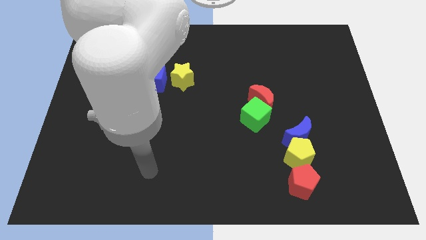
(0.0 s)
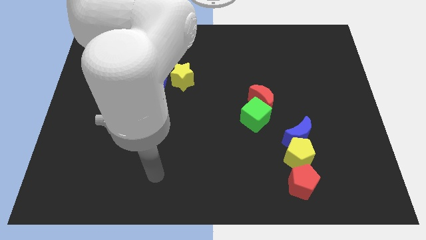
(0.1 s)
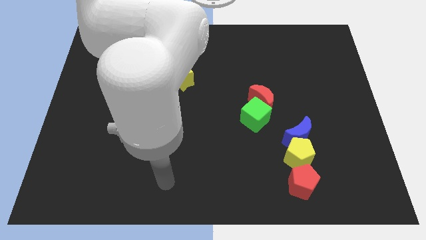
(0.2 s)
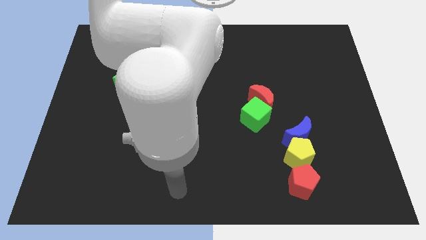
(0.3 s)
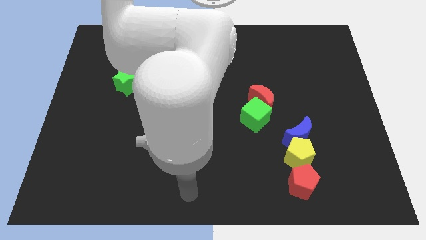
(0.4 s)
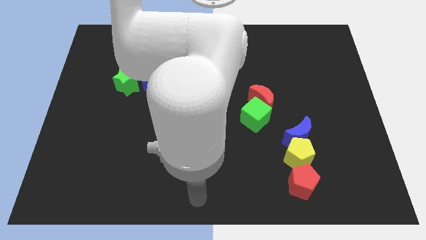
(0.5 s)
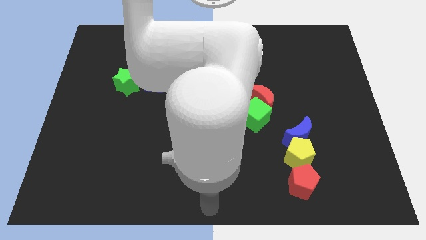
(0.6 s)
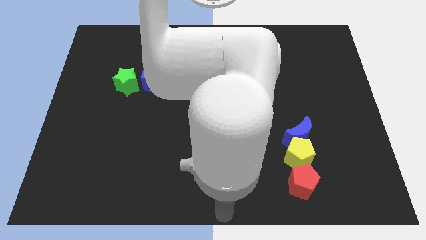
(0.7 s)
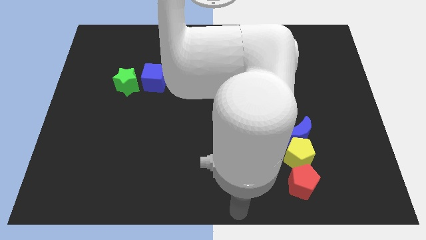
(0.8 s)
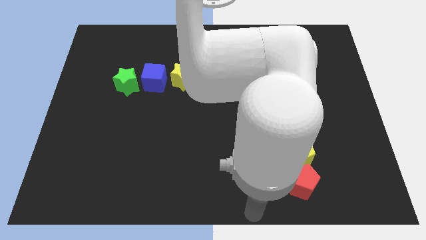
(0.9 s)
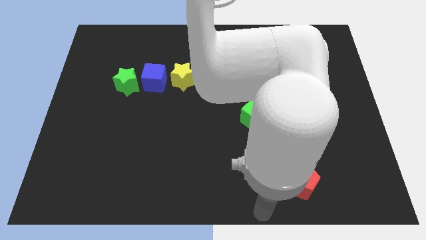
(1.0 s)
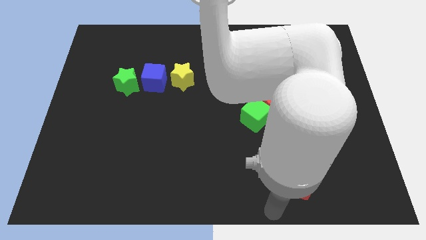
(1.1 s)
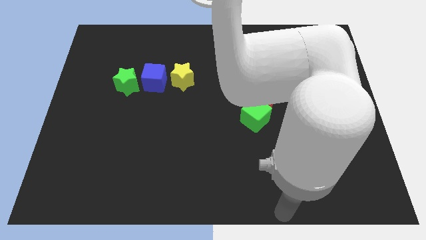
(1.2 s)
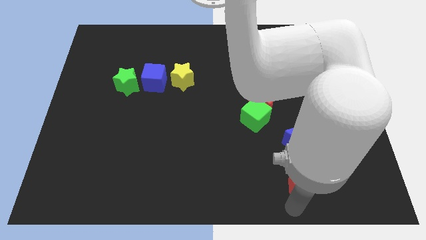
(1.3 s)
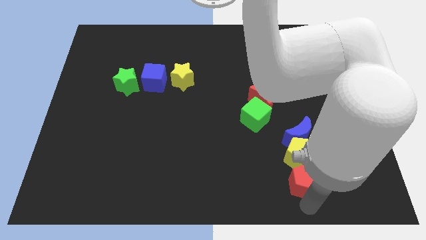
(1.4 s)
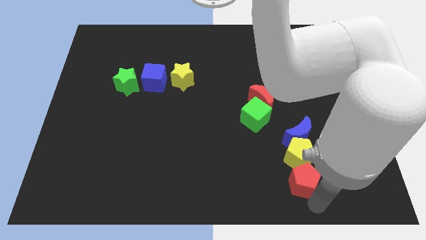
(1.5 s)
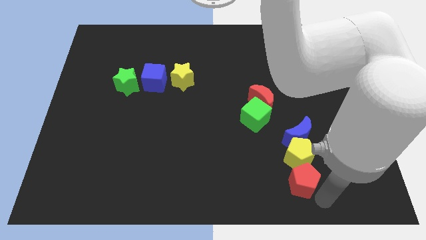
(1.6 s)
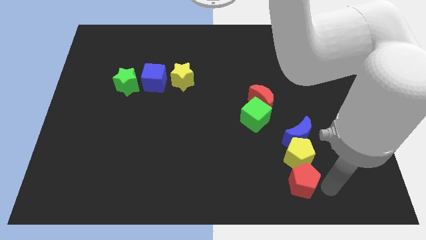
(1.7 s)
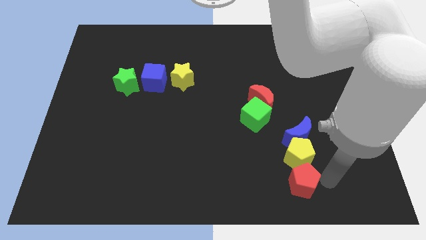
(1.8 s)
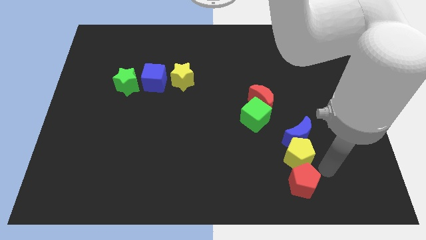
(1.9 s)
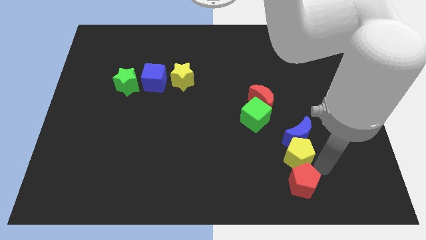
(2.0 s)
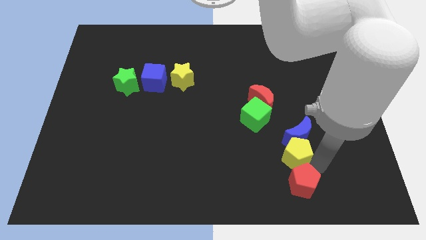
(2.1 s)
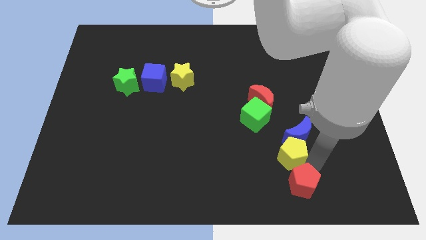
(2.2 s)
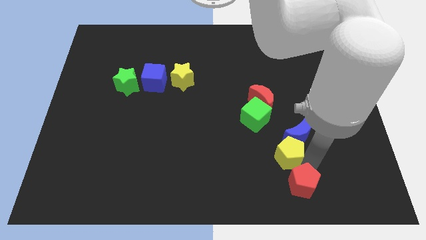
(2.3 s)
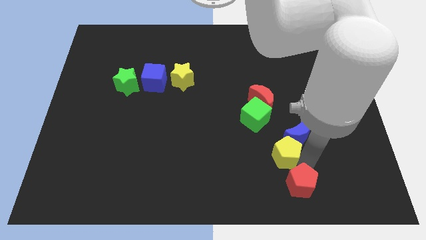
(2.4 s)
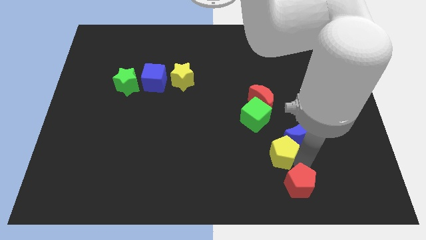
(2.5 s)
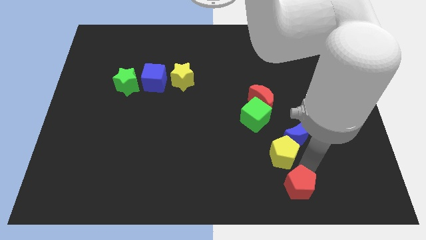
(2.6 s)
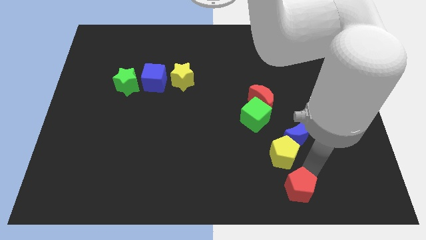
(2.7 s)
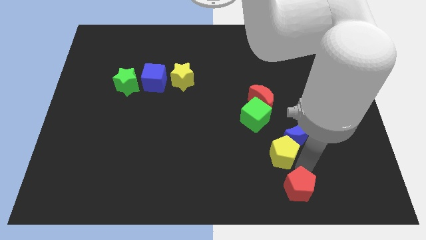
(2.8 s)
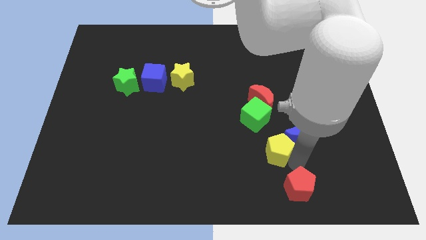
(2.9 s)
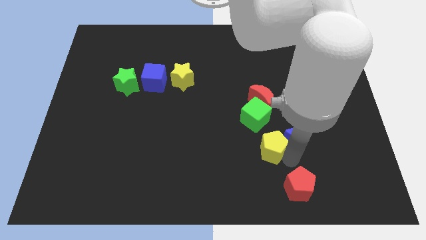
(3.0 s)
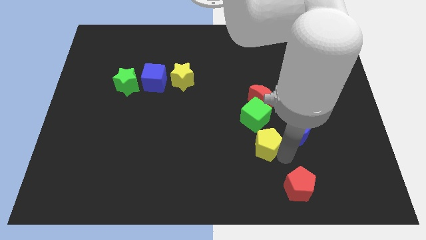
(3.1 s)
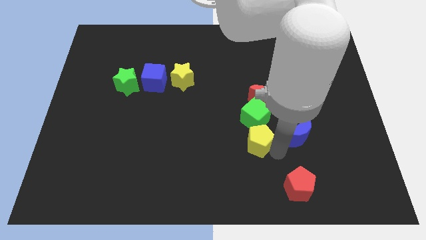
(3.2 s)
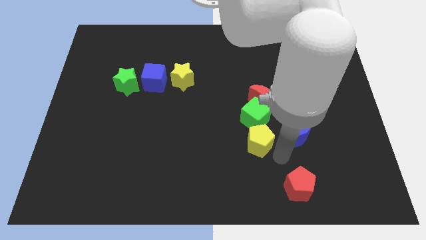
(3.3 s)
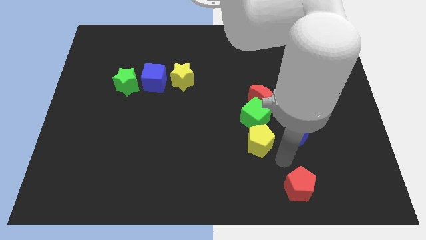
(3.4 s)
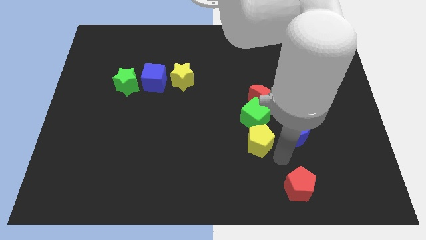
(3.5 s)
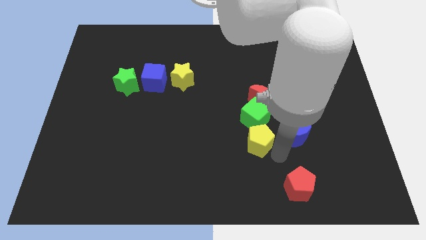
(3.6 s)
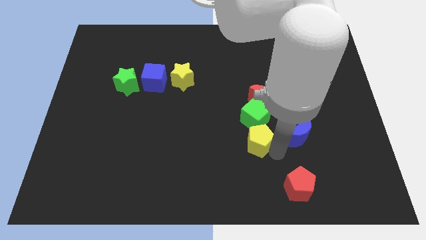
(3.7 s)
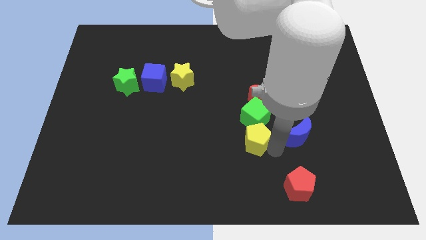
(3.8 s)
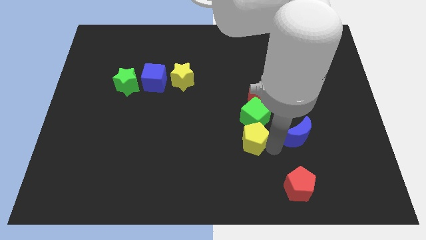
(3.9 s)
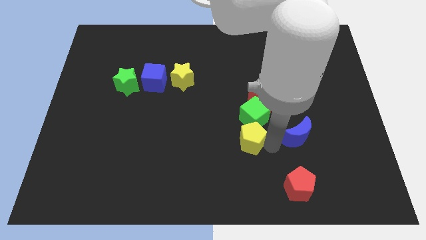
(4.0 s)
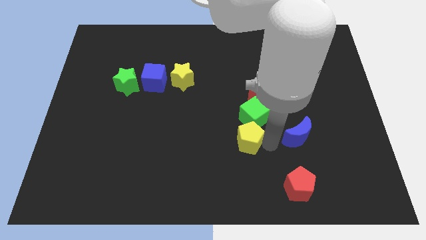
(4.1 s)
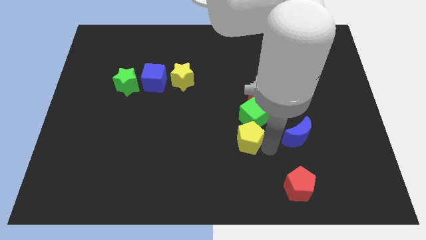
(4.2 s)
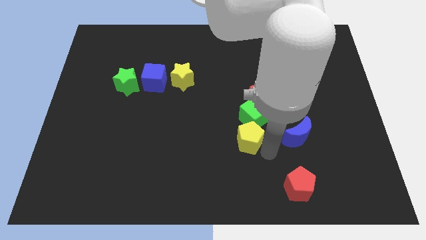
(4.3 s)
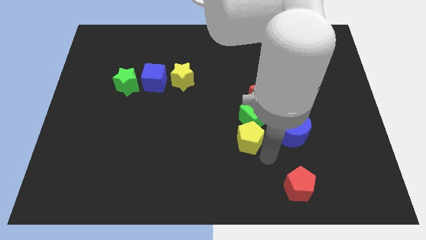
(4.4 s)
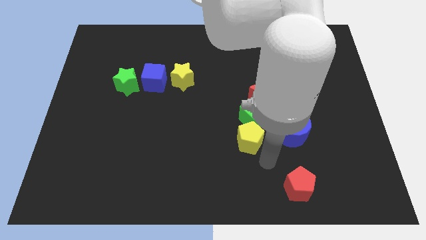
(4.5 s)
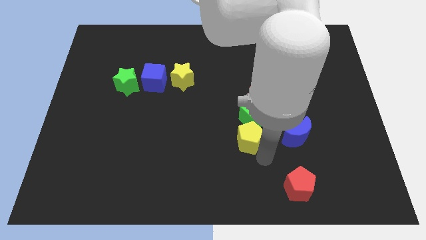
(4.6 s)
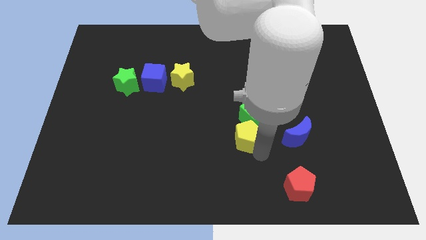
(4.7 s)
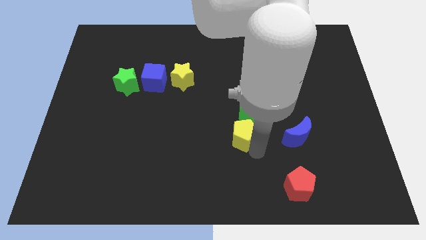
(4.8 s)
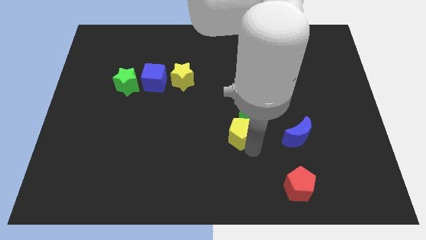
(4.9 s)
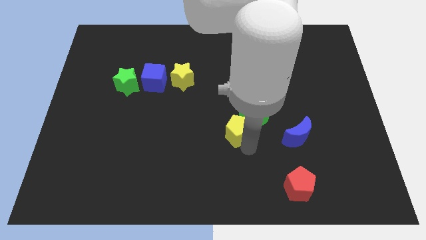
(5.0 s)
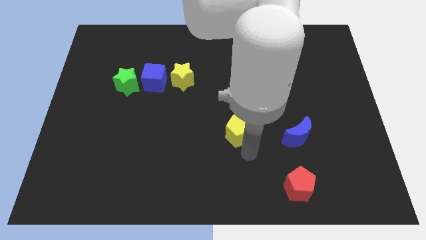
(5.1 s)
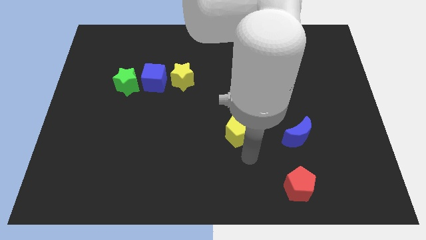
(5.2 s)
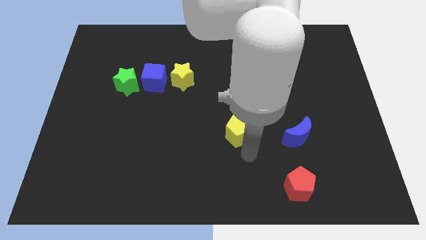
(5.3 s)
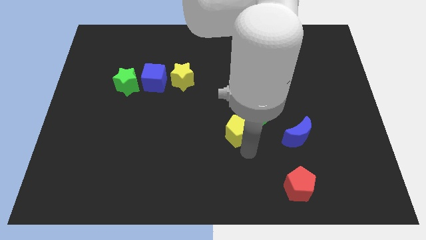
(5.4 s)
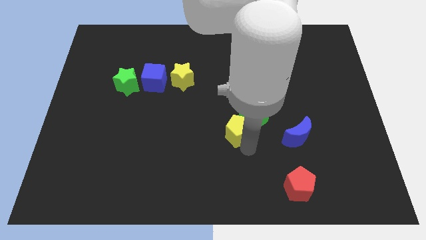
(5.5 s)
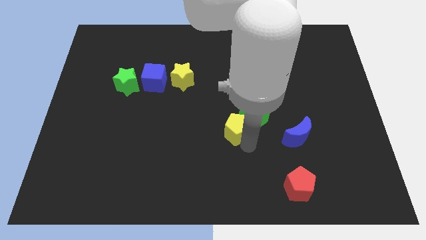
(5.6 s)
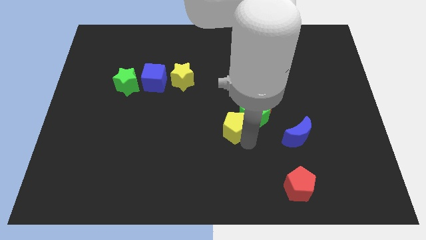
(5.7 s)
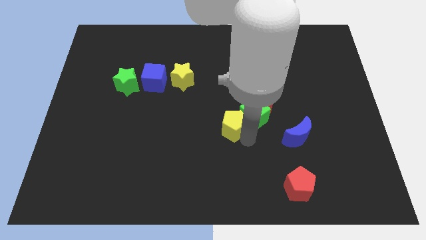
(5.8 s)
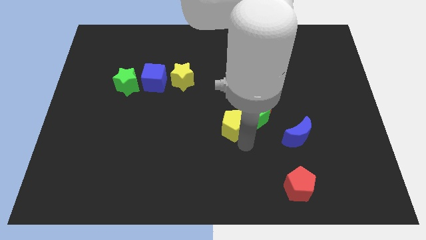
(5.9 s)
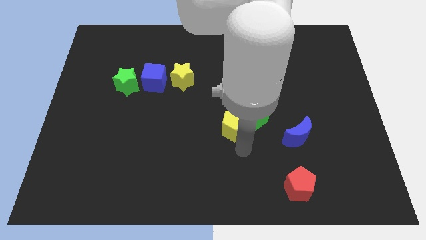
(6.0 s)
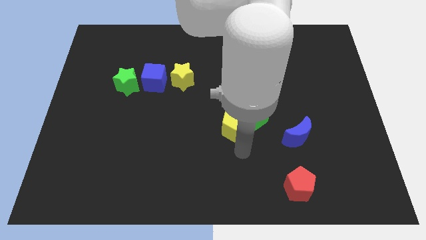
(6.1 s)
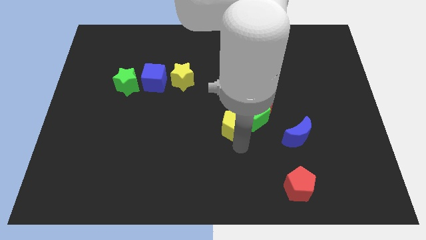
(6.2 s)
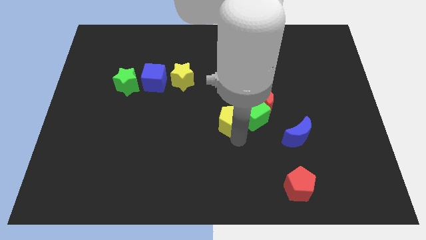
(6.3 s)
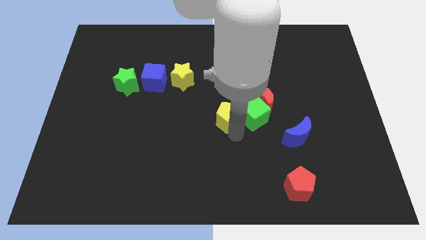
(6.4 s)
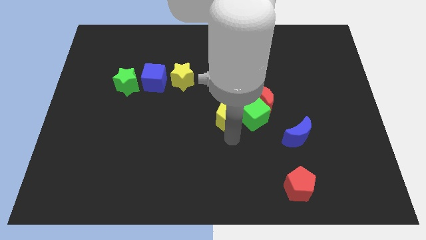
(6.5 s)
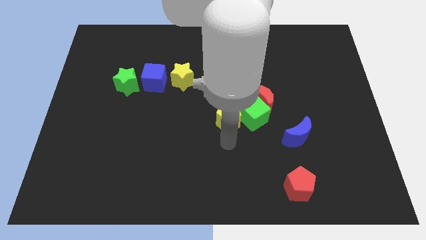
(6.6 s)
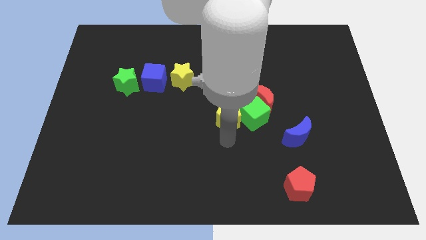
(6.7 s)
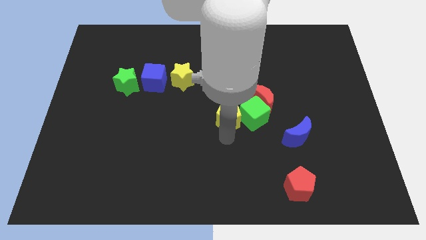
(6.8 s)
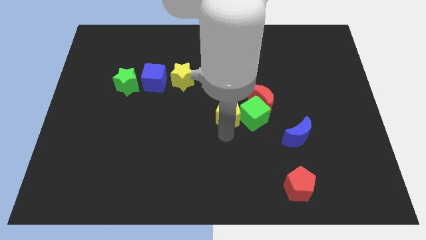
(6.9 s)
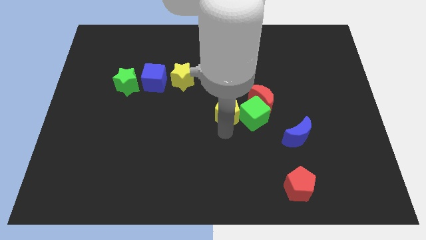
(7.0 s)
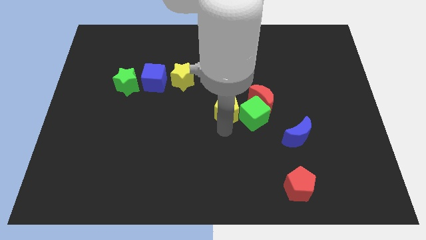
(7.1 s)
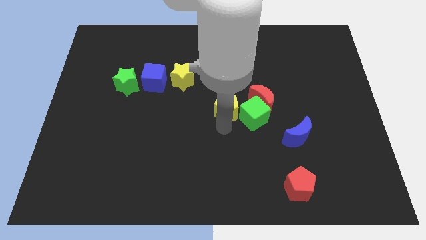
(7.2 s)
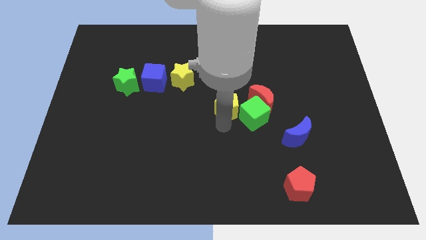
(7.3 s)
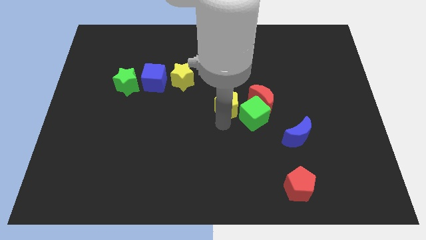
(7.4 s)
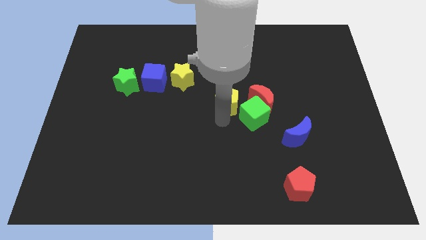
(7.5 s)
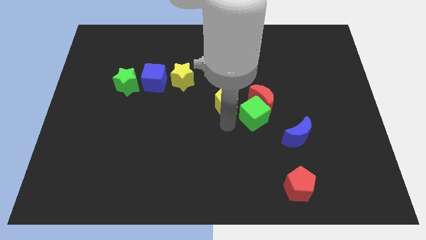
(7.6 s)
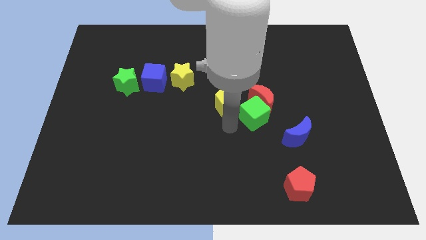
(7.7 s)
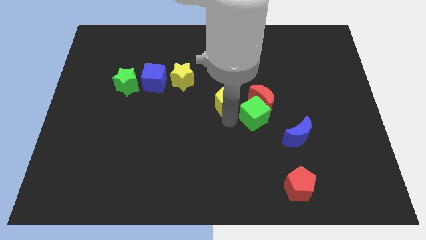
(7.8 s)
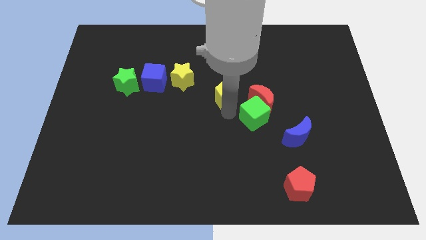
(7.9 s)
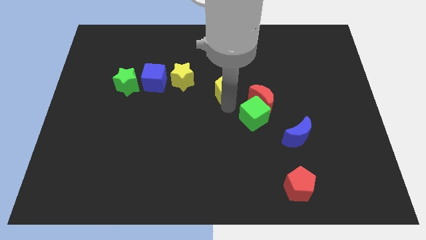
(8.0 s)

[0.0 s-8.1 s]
put the yellow pentagon to the right side of the yellow star

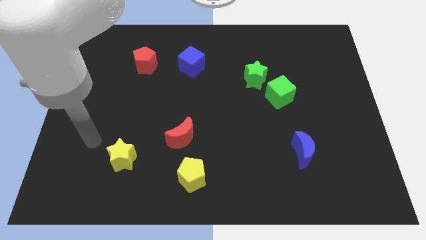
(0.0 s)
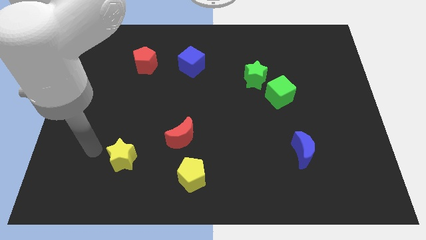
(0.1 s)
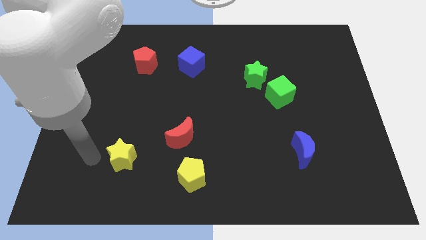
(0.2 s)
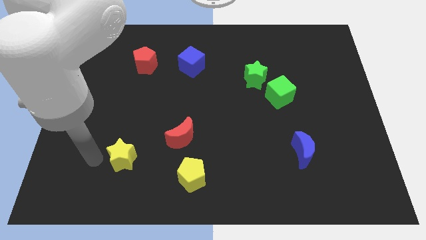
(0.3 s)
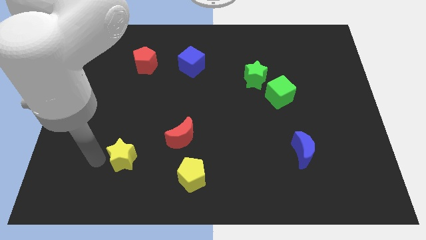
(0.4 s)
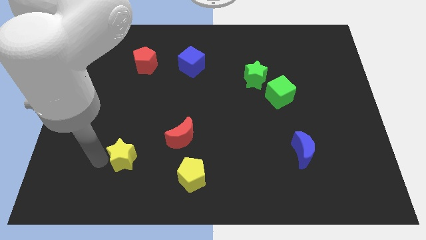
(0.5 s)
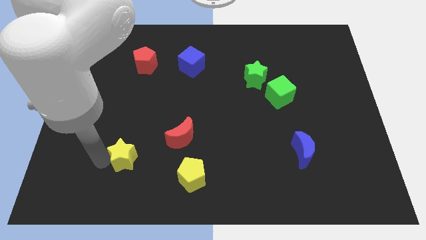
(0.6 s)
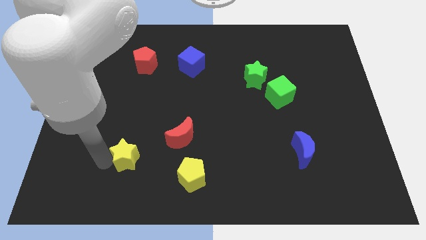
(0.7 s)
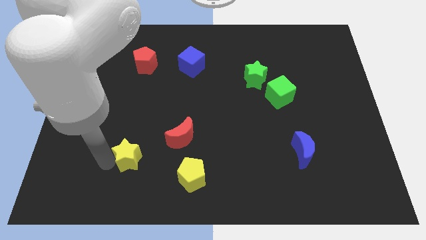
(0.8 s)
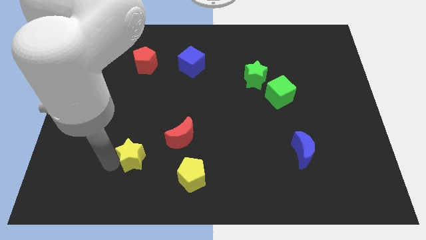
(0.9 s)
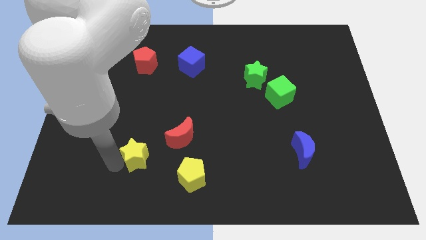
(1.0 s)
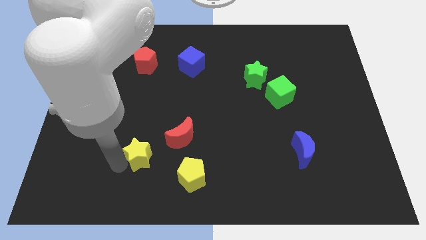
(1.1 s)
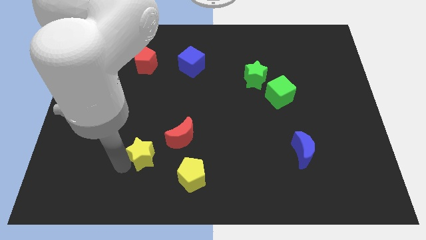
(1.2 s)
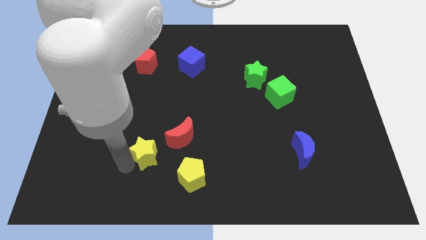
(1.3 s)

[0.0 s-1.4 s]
slide the yellow star to the top left side of the yellow pentagon
